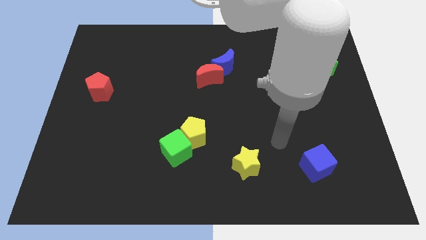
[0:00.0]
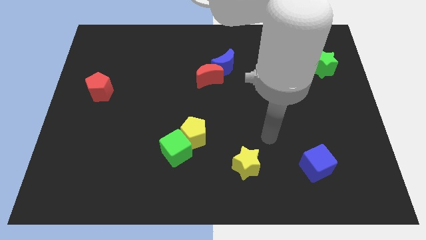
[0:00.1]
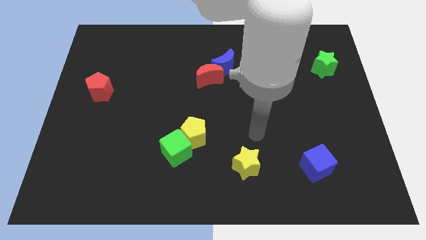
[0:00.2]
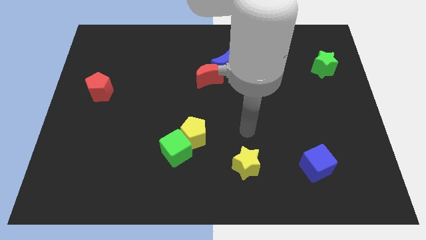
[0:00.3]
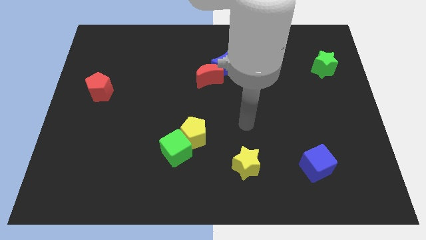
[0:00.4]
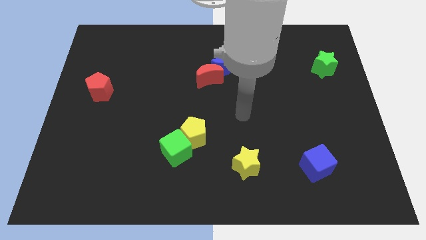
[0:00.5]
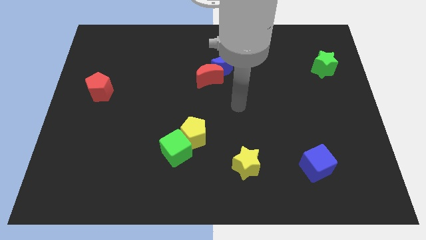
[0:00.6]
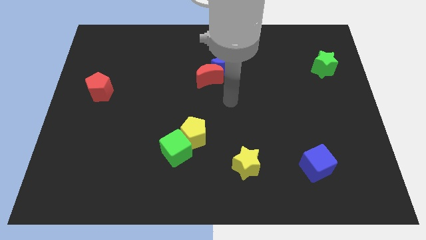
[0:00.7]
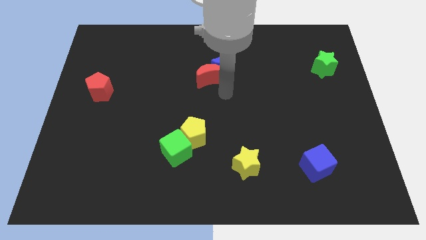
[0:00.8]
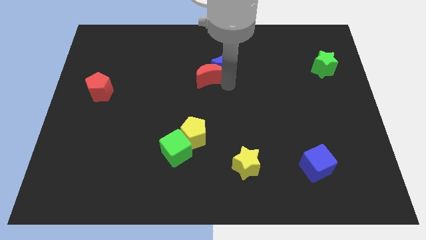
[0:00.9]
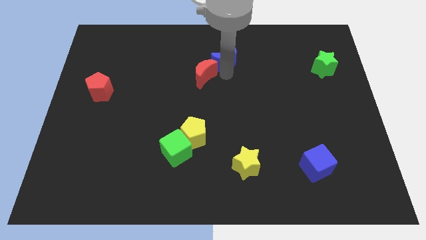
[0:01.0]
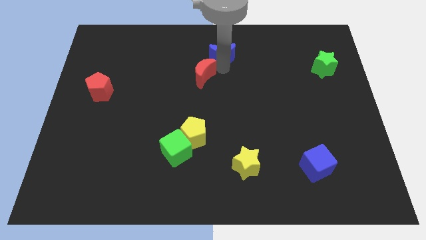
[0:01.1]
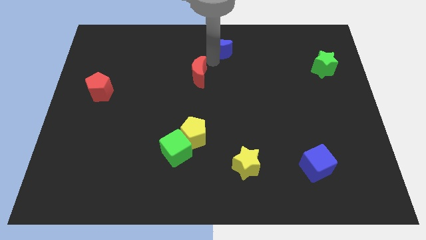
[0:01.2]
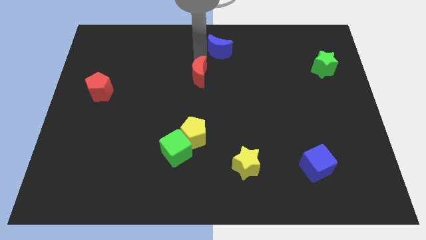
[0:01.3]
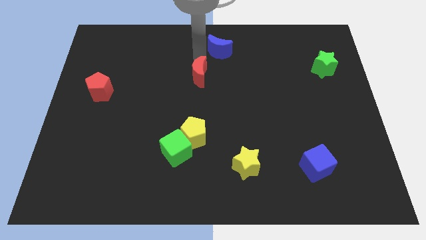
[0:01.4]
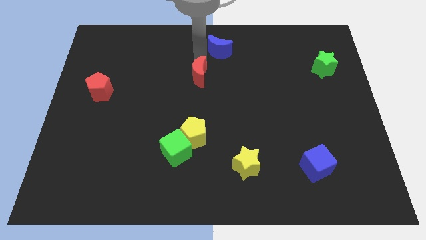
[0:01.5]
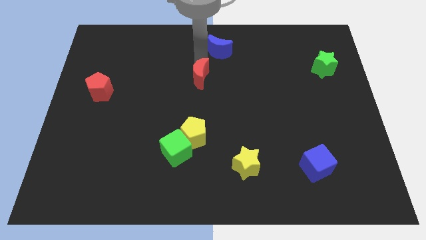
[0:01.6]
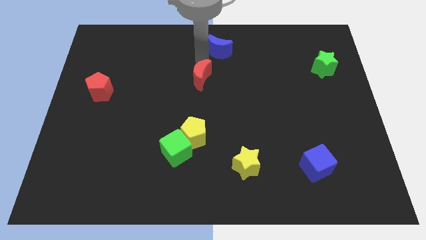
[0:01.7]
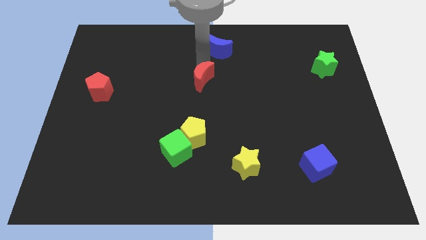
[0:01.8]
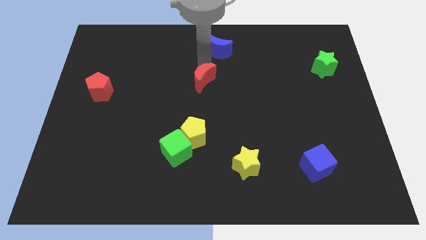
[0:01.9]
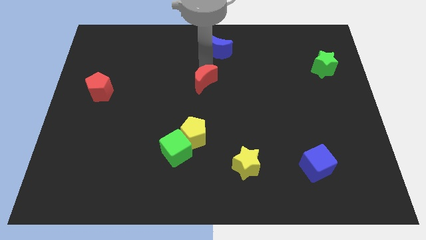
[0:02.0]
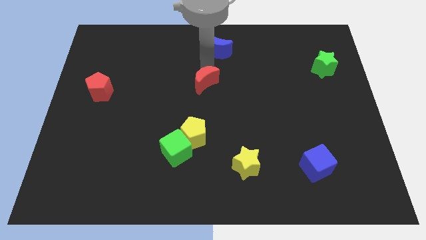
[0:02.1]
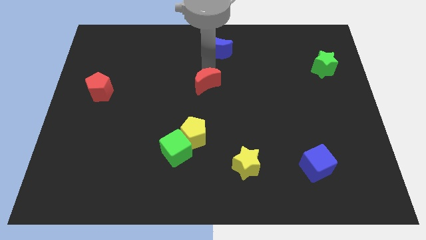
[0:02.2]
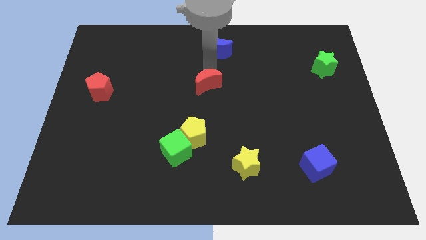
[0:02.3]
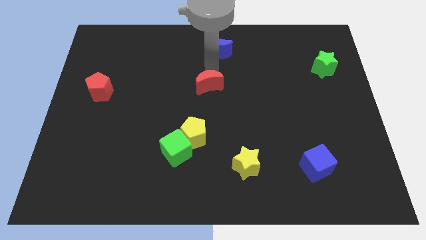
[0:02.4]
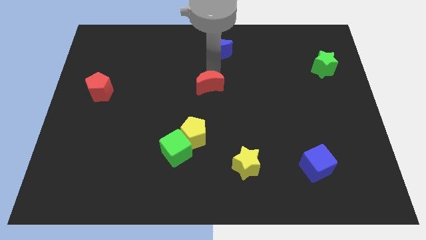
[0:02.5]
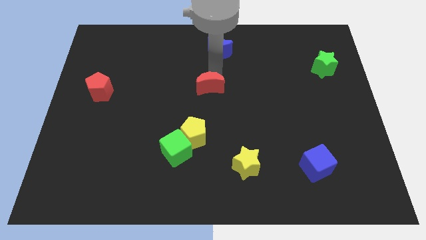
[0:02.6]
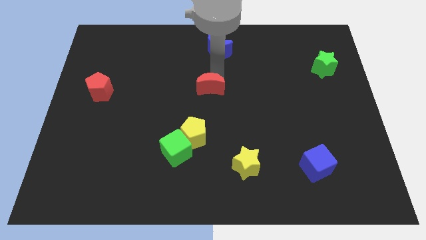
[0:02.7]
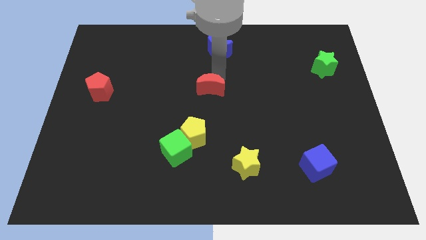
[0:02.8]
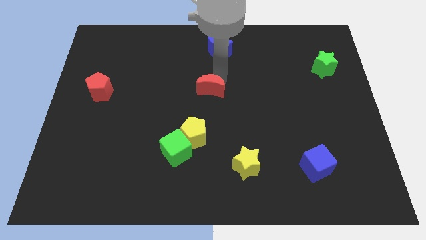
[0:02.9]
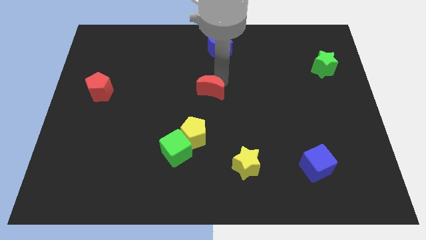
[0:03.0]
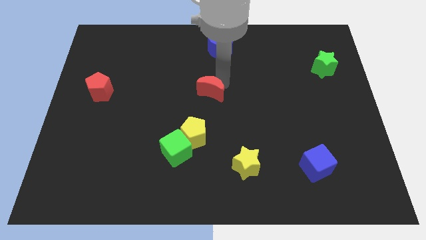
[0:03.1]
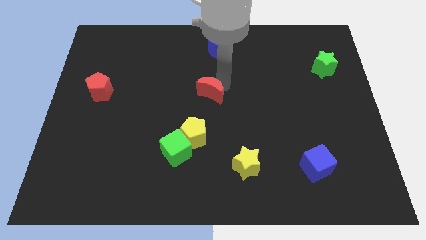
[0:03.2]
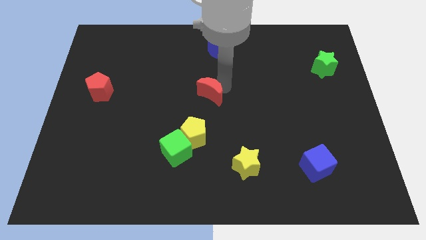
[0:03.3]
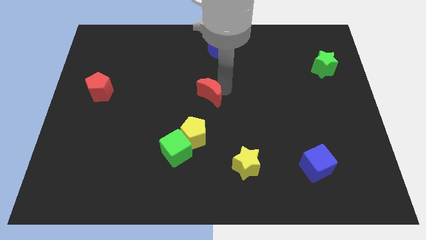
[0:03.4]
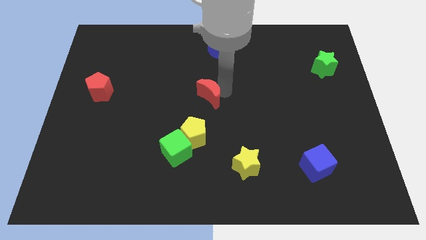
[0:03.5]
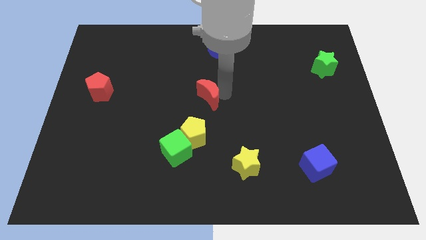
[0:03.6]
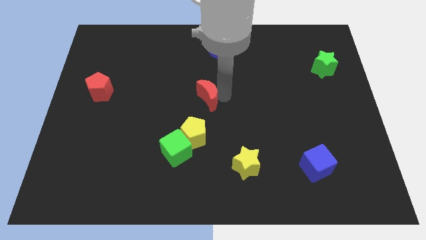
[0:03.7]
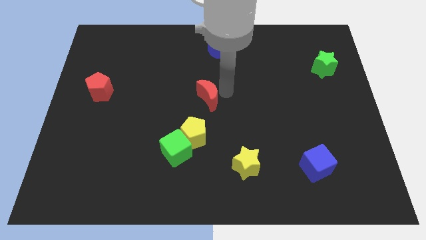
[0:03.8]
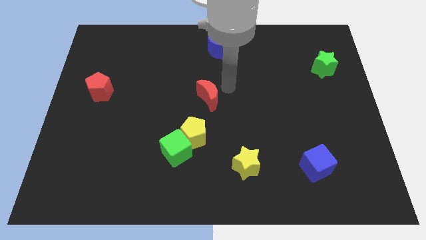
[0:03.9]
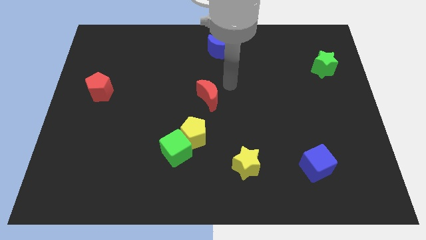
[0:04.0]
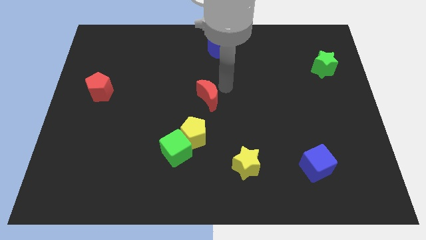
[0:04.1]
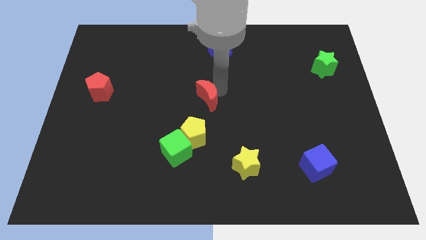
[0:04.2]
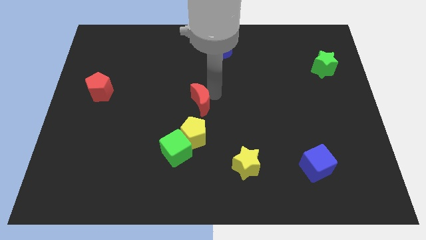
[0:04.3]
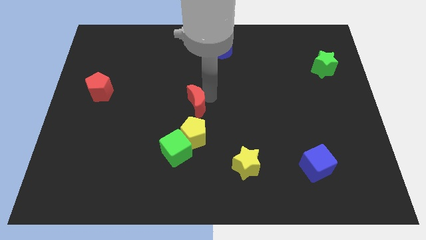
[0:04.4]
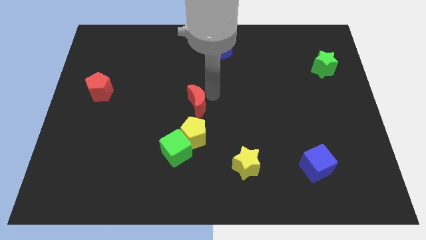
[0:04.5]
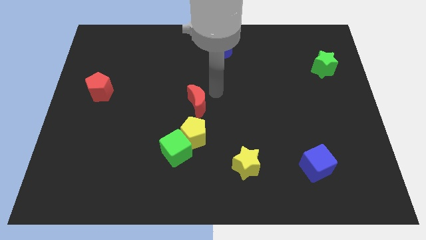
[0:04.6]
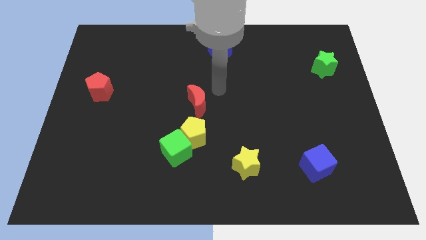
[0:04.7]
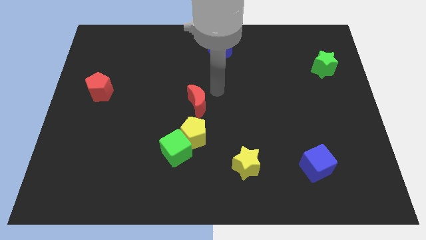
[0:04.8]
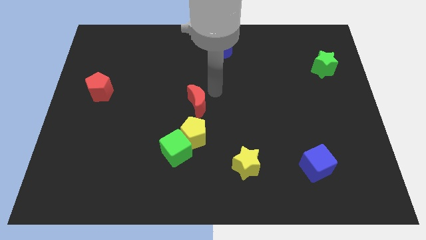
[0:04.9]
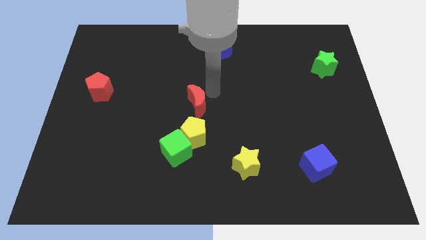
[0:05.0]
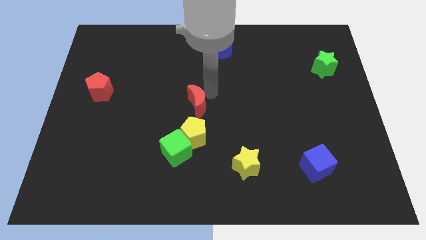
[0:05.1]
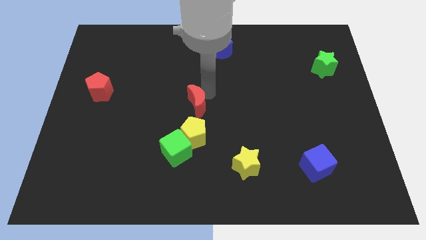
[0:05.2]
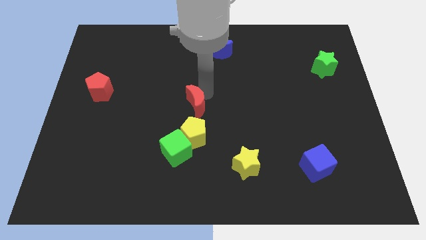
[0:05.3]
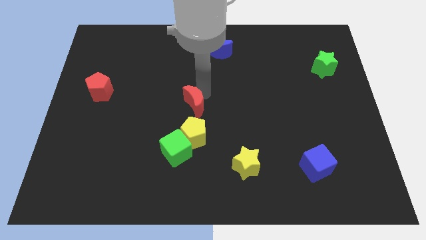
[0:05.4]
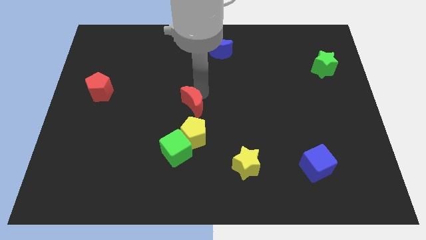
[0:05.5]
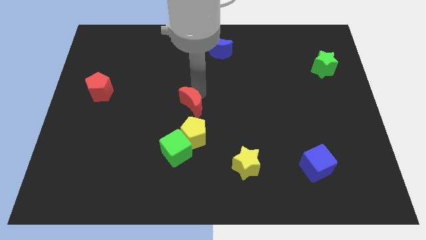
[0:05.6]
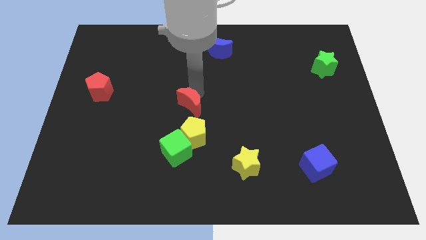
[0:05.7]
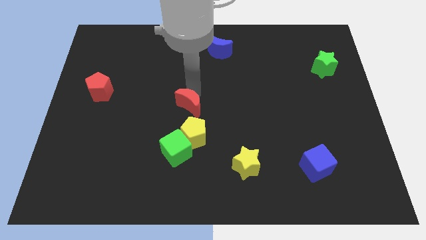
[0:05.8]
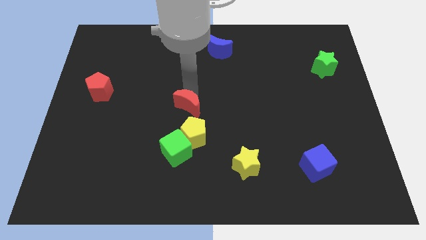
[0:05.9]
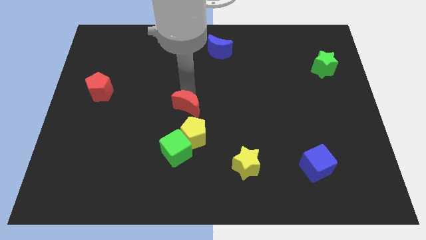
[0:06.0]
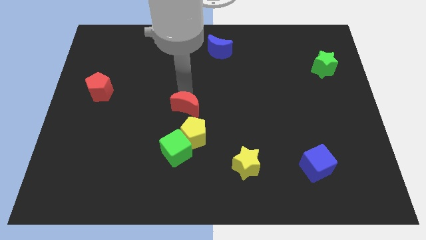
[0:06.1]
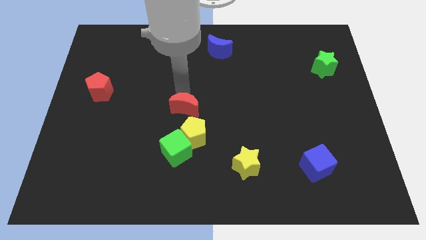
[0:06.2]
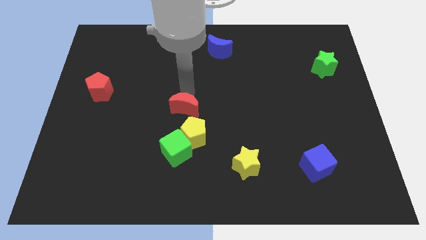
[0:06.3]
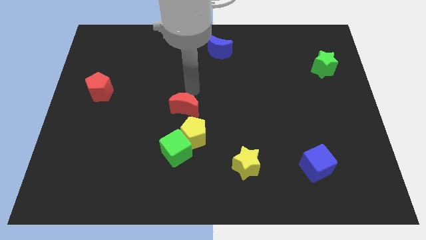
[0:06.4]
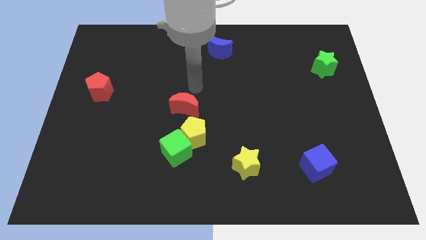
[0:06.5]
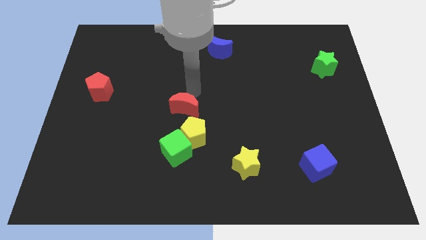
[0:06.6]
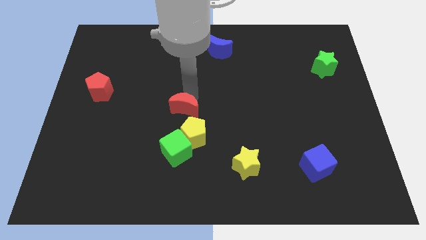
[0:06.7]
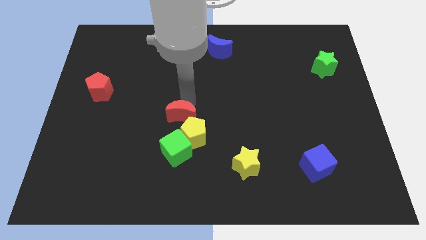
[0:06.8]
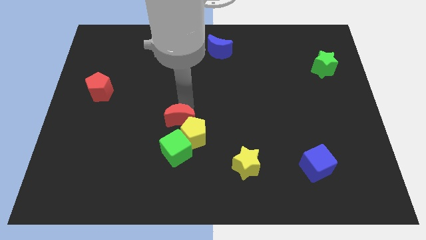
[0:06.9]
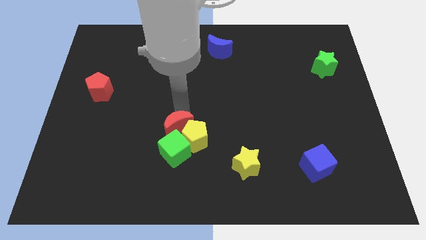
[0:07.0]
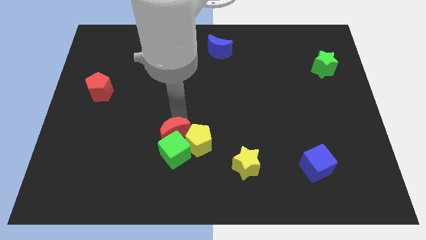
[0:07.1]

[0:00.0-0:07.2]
push the red moon towards the green cube

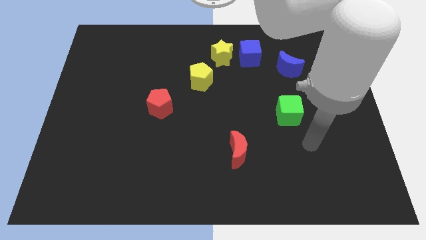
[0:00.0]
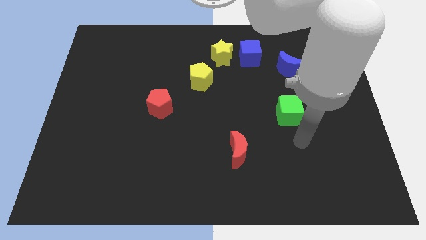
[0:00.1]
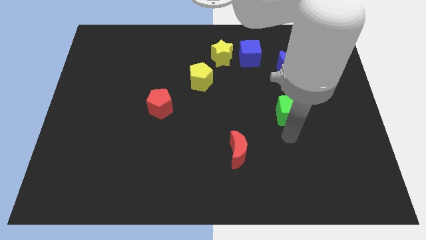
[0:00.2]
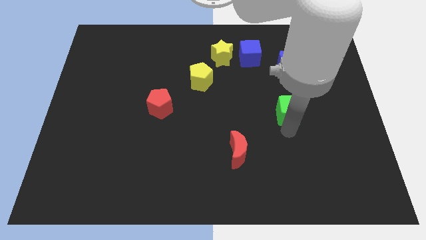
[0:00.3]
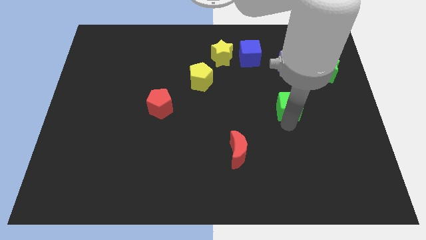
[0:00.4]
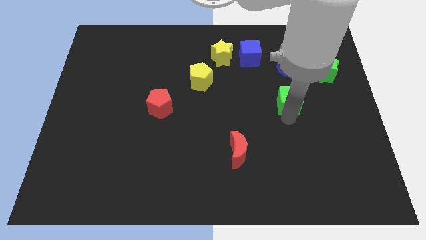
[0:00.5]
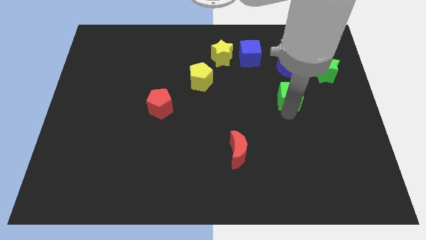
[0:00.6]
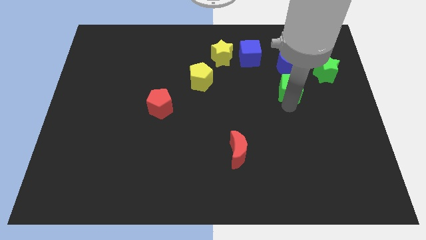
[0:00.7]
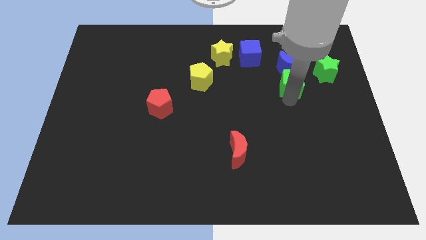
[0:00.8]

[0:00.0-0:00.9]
push the green cube close to the blue moon
